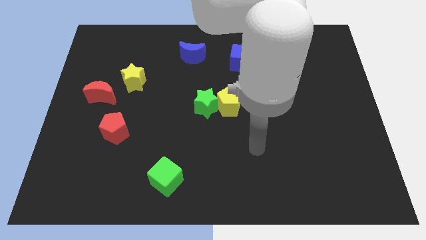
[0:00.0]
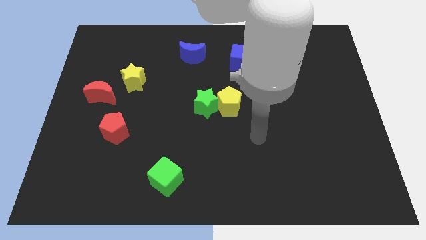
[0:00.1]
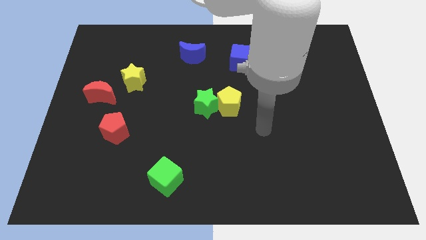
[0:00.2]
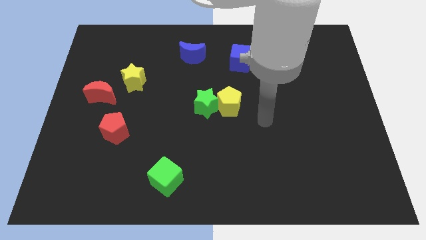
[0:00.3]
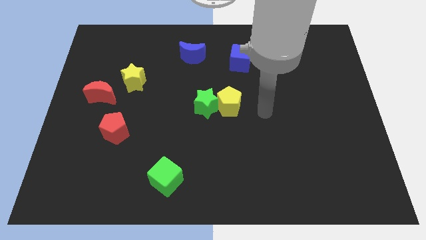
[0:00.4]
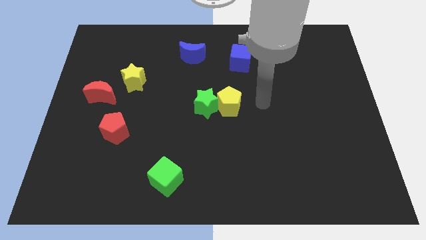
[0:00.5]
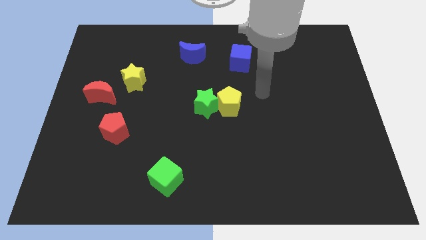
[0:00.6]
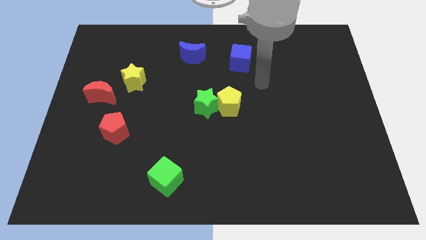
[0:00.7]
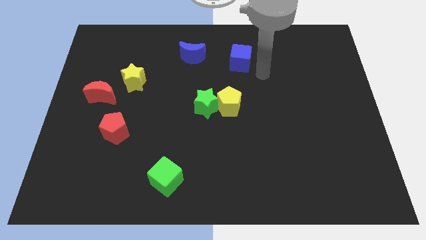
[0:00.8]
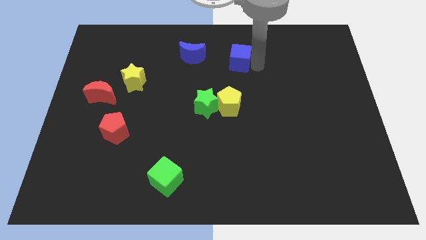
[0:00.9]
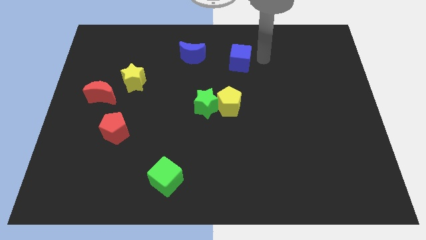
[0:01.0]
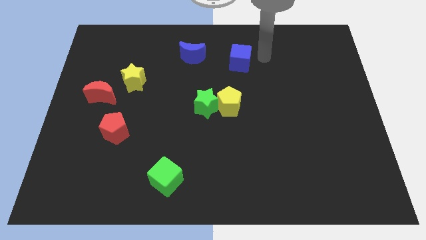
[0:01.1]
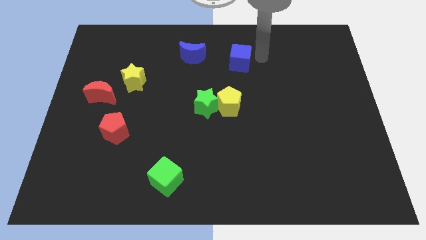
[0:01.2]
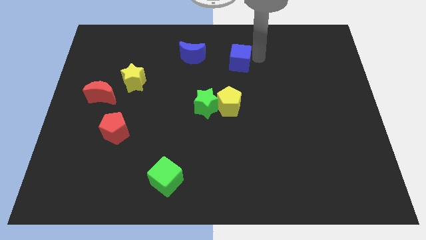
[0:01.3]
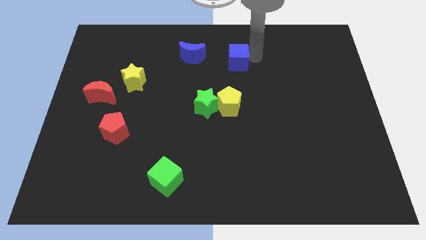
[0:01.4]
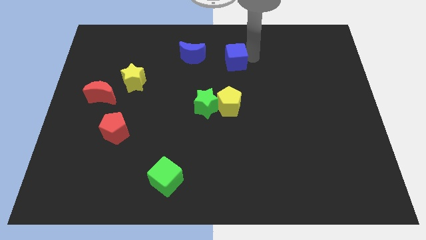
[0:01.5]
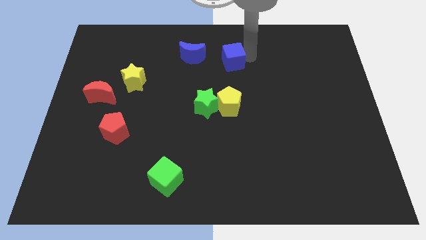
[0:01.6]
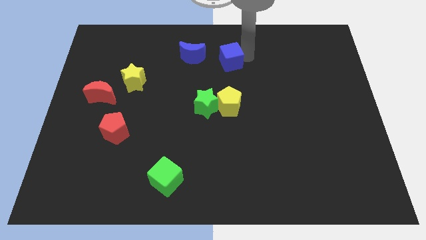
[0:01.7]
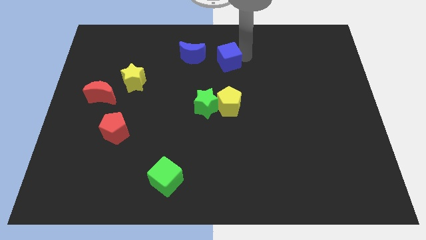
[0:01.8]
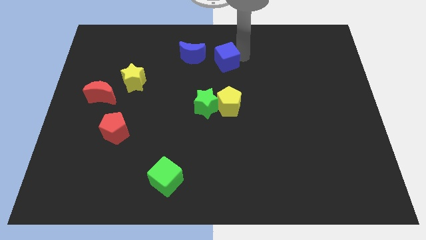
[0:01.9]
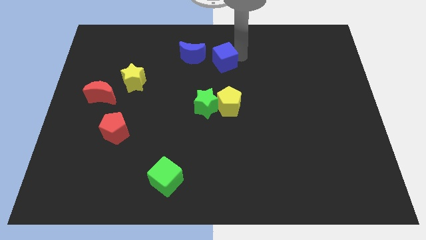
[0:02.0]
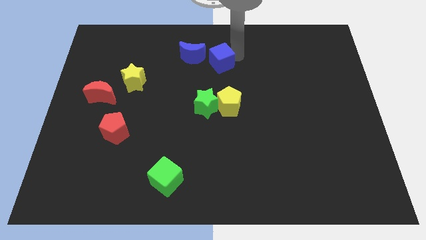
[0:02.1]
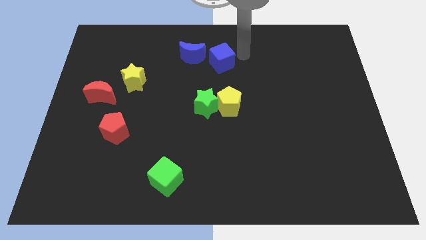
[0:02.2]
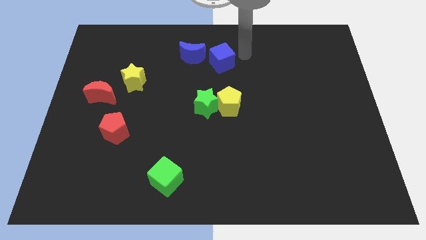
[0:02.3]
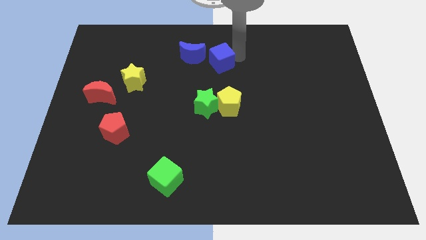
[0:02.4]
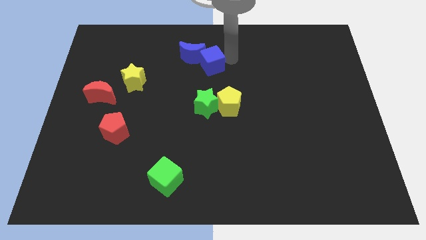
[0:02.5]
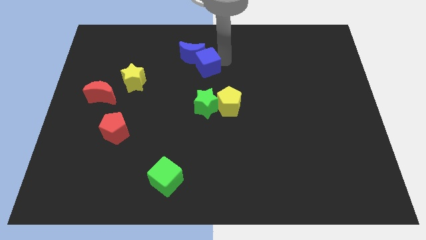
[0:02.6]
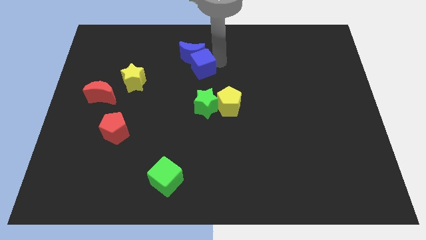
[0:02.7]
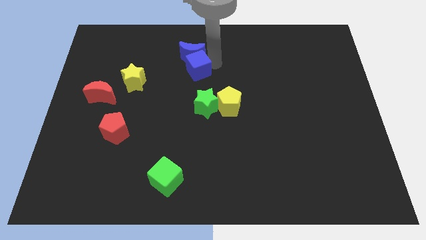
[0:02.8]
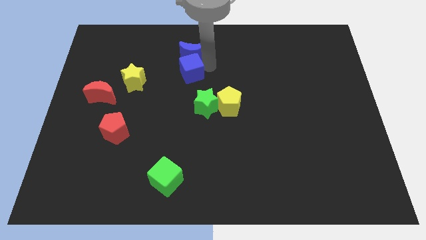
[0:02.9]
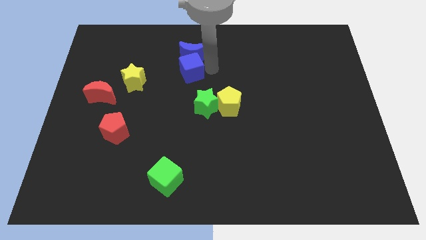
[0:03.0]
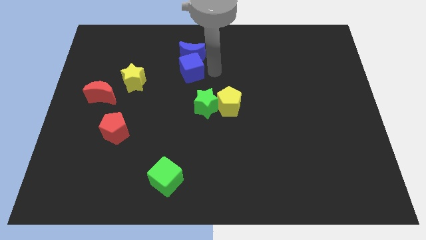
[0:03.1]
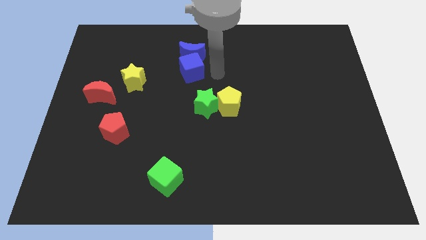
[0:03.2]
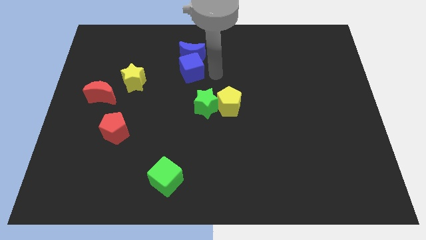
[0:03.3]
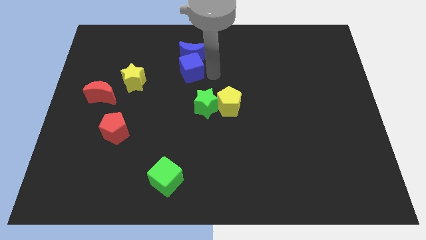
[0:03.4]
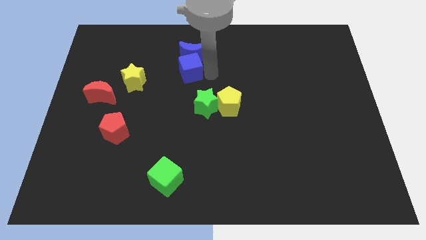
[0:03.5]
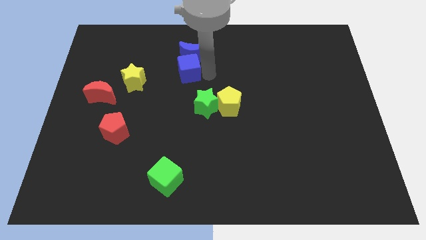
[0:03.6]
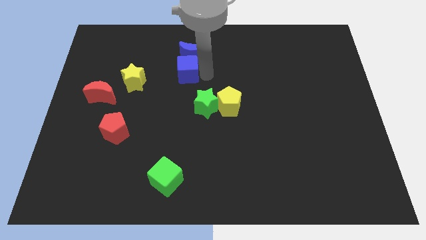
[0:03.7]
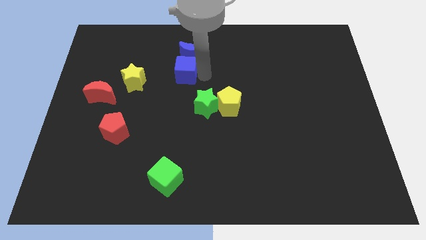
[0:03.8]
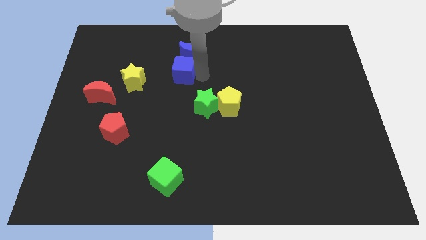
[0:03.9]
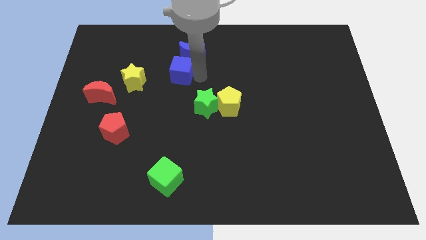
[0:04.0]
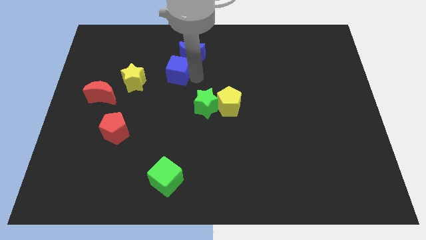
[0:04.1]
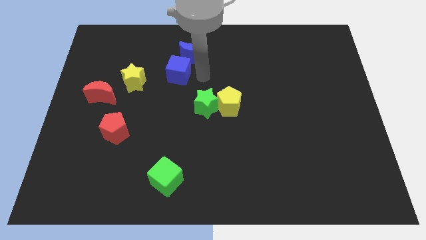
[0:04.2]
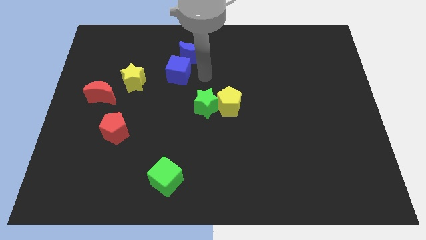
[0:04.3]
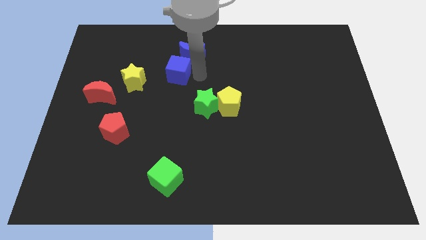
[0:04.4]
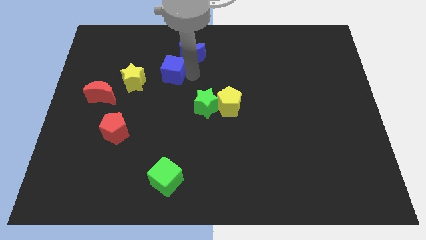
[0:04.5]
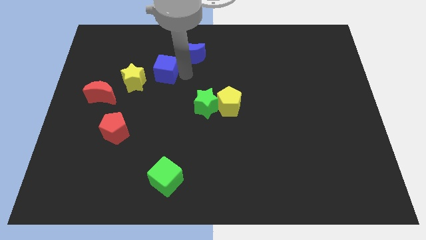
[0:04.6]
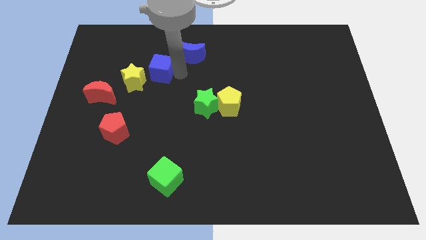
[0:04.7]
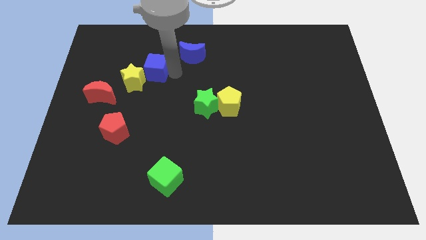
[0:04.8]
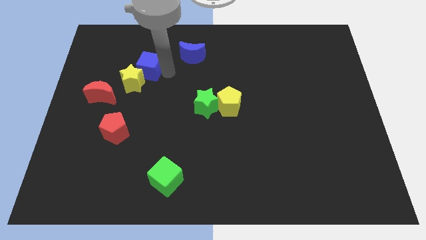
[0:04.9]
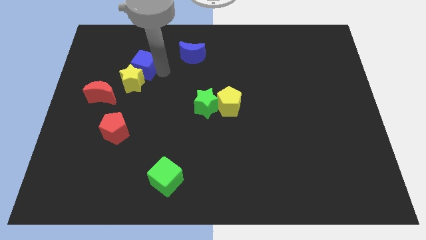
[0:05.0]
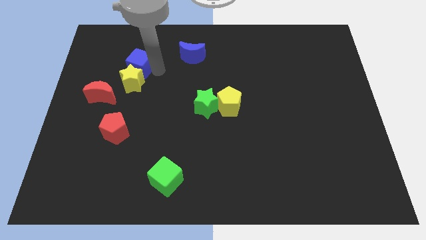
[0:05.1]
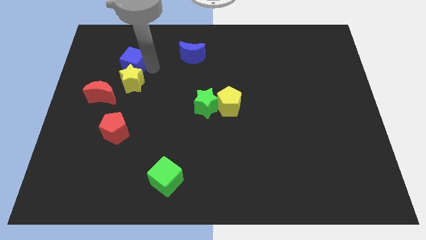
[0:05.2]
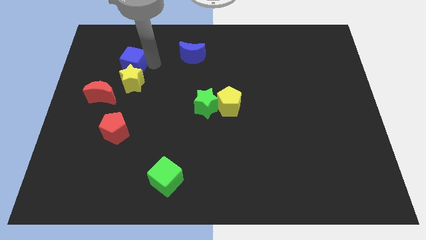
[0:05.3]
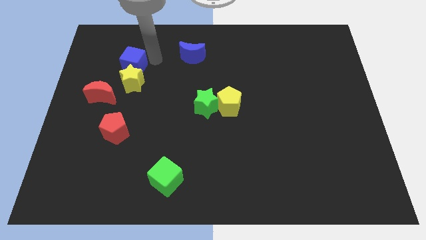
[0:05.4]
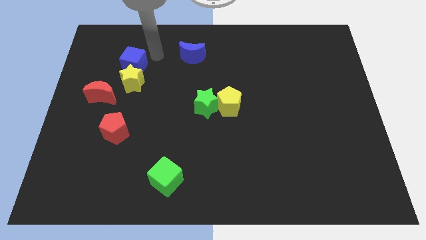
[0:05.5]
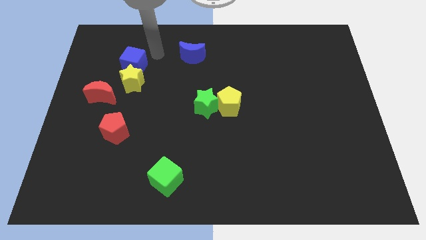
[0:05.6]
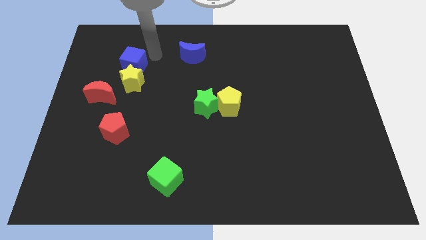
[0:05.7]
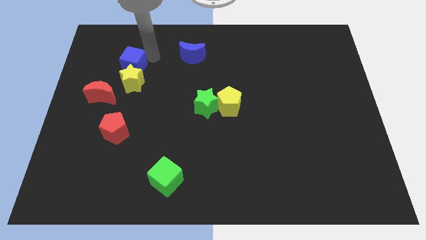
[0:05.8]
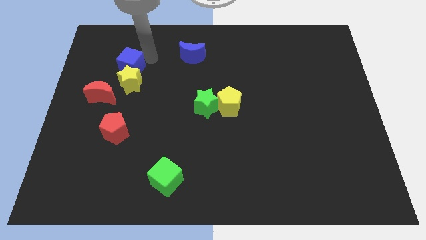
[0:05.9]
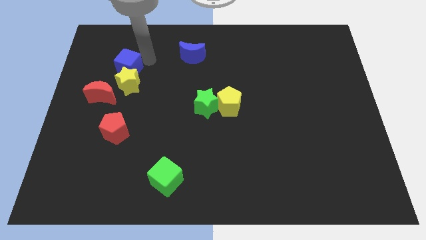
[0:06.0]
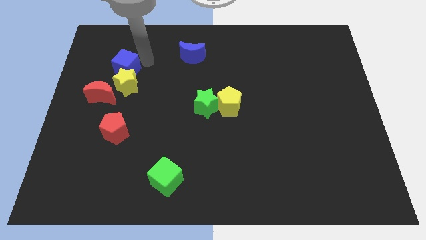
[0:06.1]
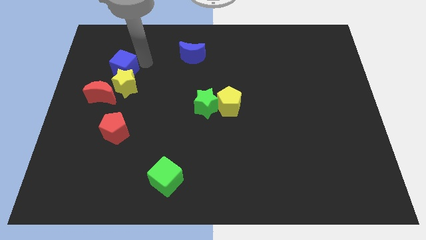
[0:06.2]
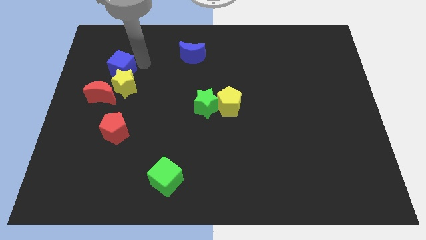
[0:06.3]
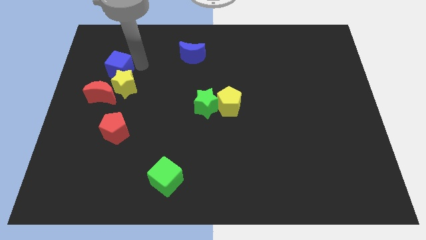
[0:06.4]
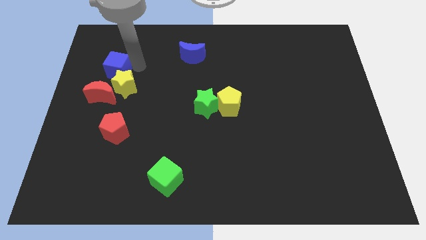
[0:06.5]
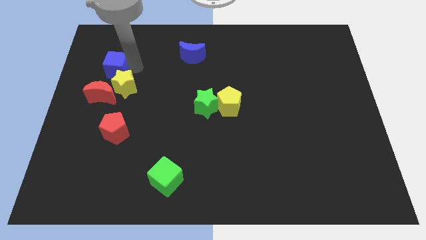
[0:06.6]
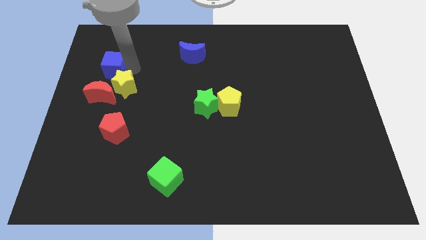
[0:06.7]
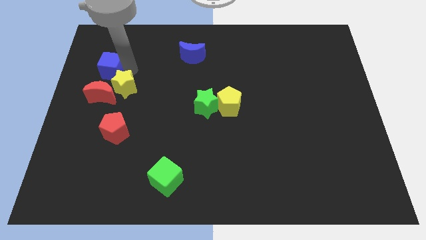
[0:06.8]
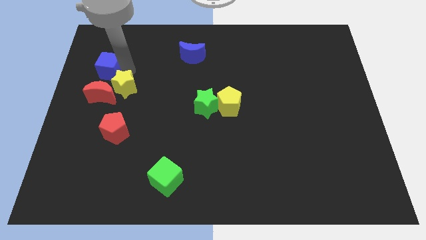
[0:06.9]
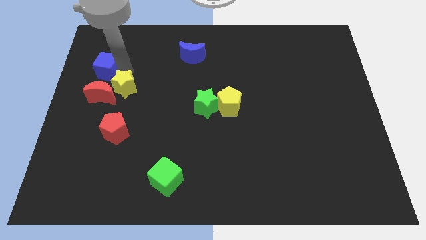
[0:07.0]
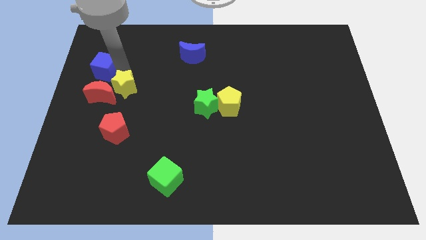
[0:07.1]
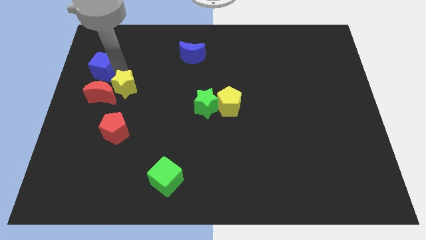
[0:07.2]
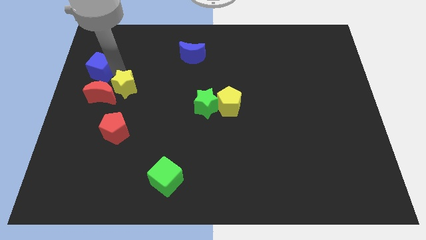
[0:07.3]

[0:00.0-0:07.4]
put the blue cube to the center left
